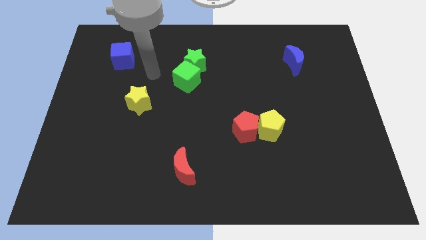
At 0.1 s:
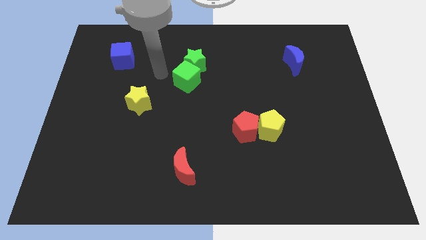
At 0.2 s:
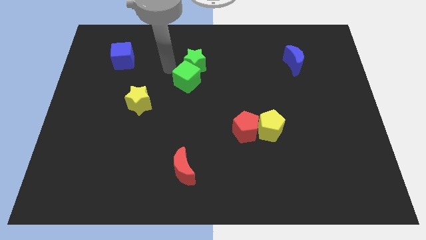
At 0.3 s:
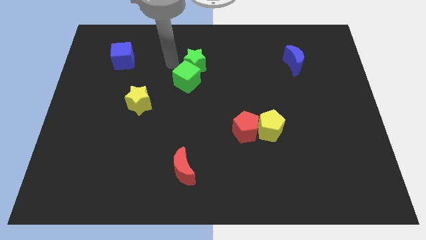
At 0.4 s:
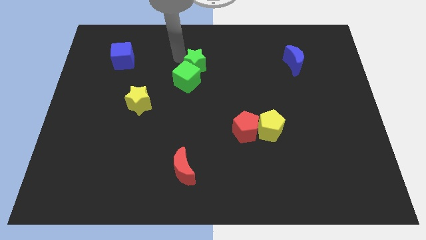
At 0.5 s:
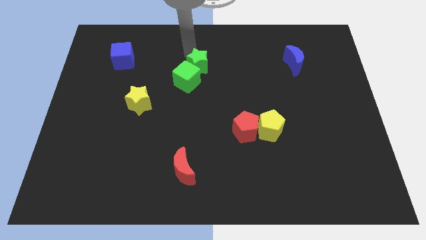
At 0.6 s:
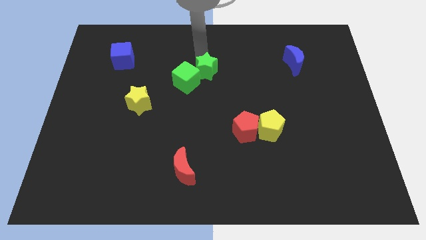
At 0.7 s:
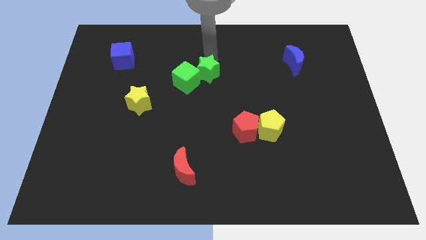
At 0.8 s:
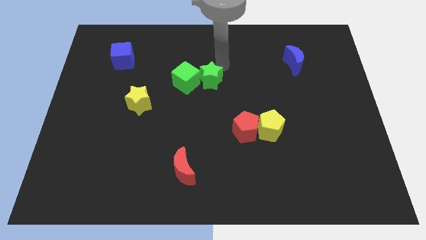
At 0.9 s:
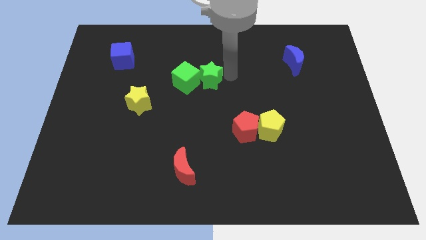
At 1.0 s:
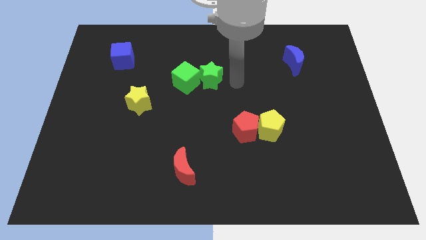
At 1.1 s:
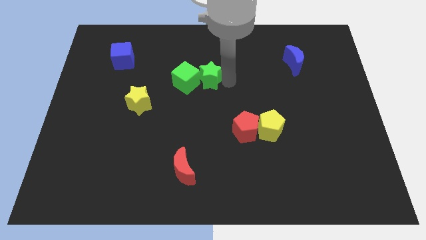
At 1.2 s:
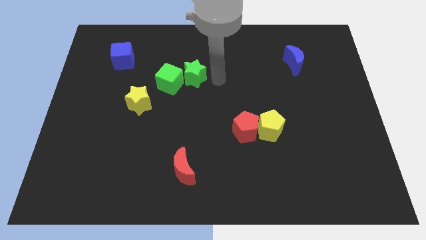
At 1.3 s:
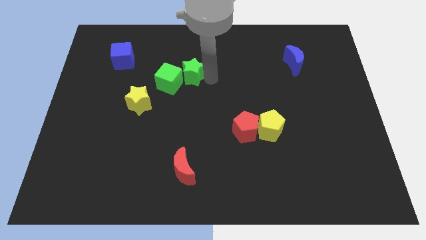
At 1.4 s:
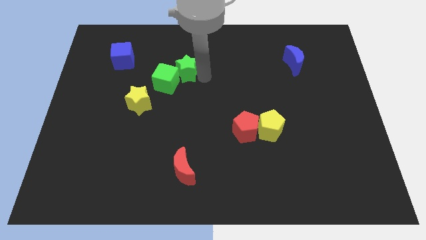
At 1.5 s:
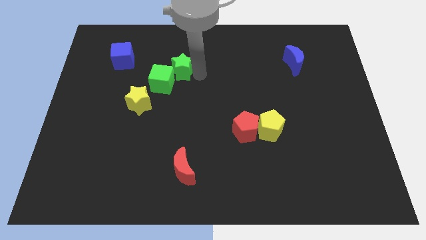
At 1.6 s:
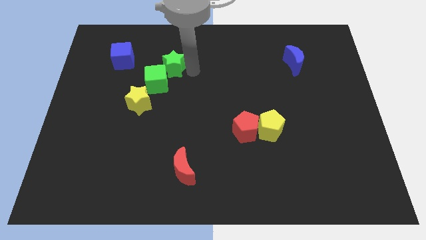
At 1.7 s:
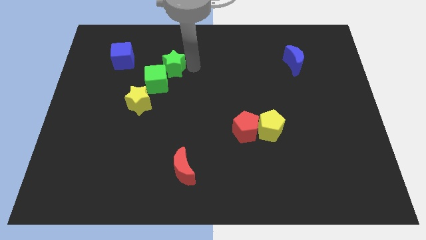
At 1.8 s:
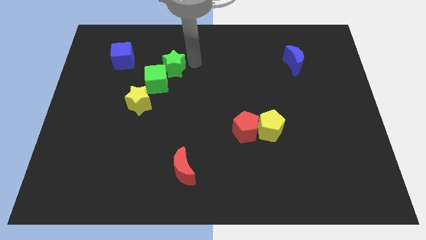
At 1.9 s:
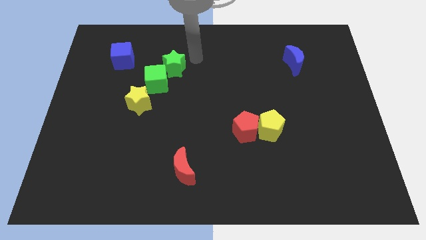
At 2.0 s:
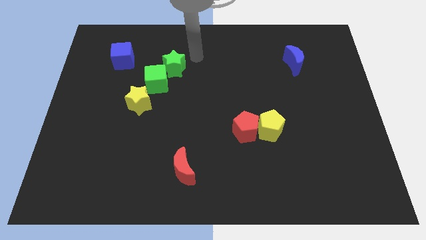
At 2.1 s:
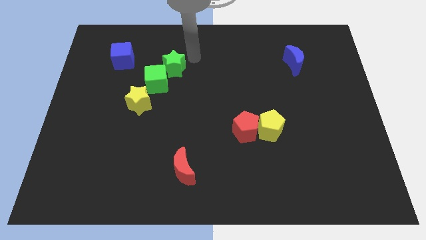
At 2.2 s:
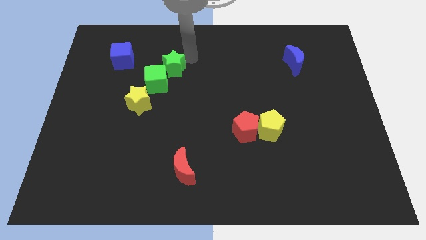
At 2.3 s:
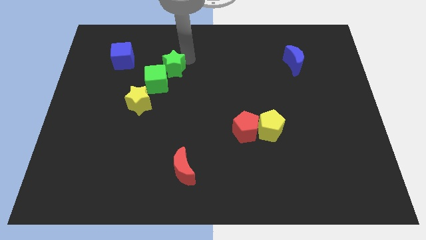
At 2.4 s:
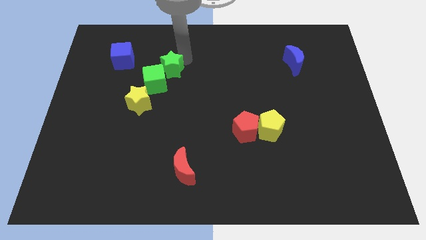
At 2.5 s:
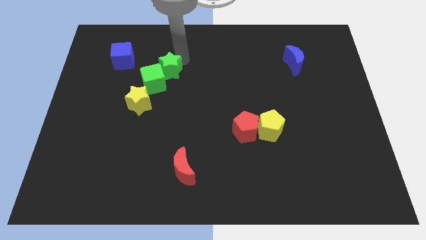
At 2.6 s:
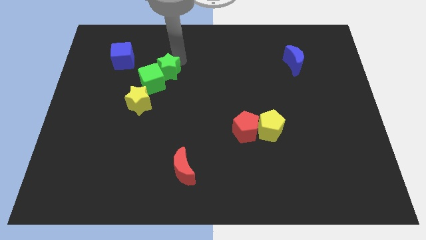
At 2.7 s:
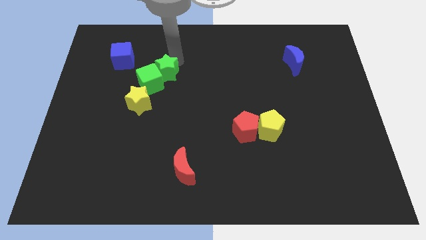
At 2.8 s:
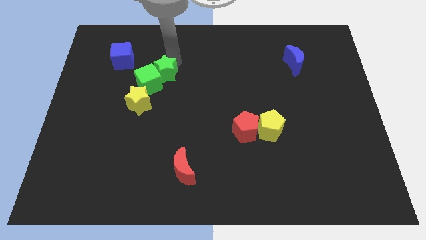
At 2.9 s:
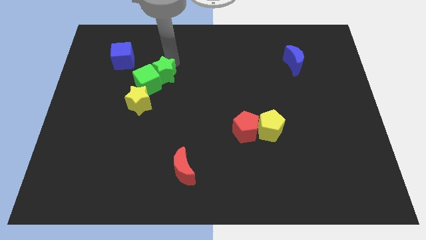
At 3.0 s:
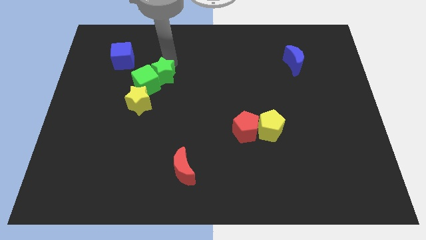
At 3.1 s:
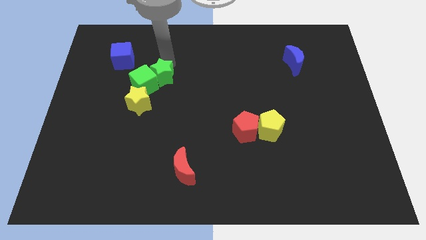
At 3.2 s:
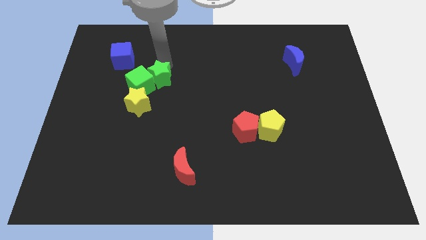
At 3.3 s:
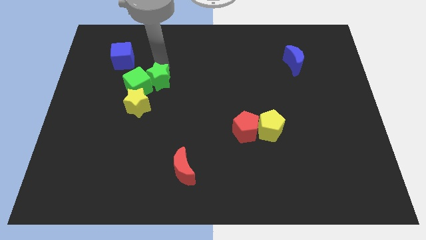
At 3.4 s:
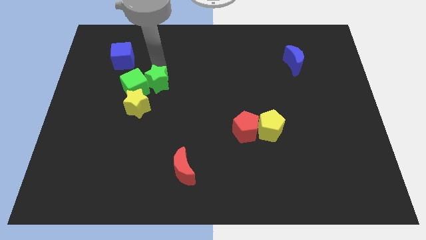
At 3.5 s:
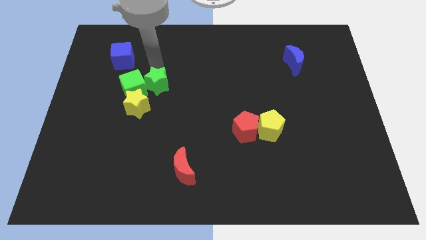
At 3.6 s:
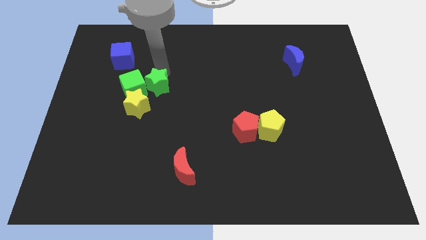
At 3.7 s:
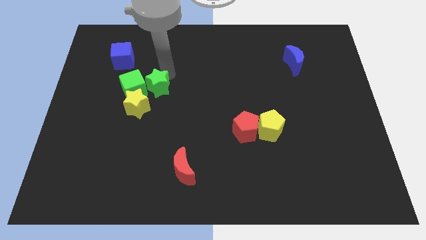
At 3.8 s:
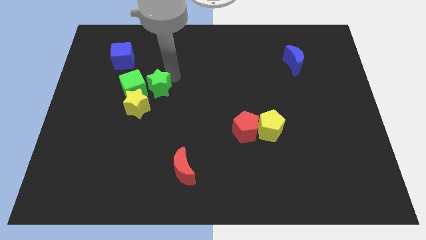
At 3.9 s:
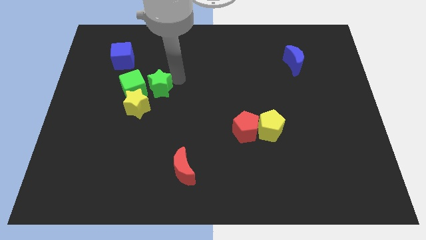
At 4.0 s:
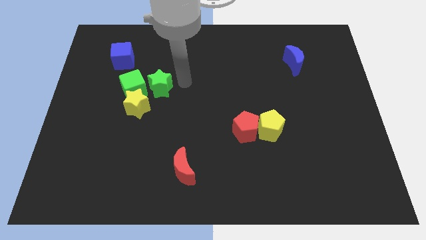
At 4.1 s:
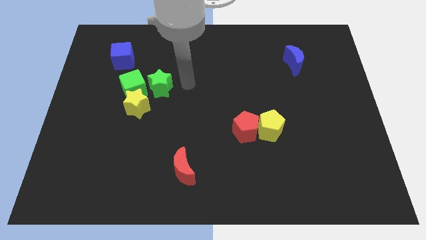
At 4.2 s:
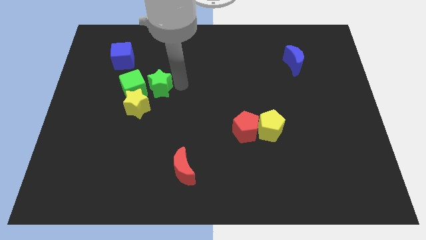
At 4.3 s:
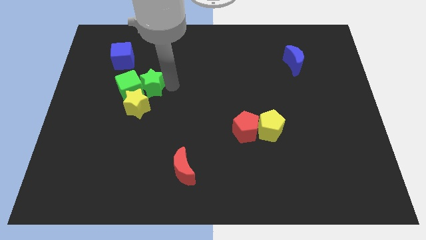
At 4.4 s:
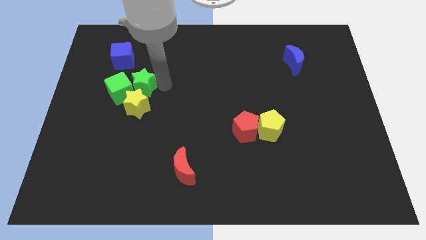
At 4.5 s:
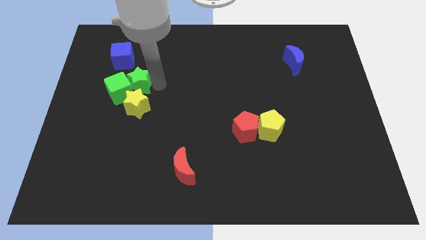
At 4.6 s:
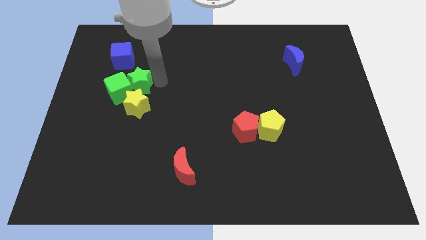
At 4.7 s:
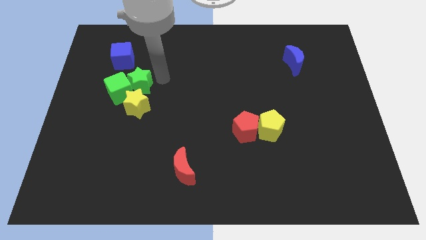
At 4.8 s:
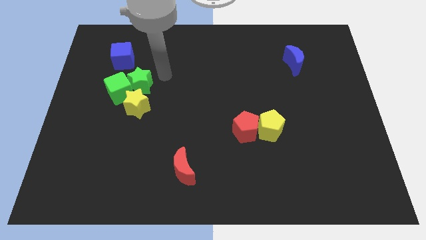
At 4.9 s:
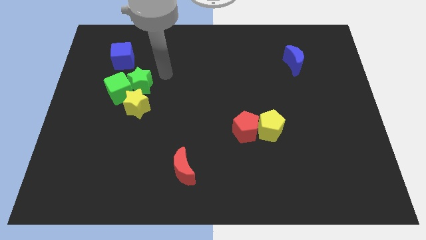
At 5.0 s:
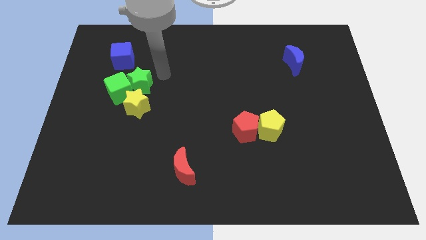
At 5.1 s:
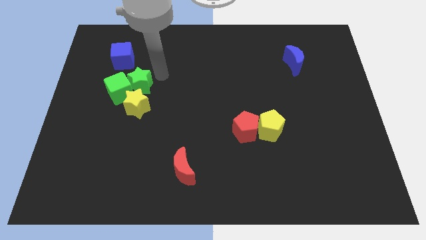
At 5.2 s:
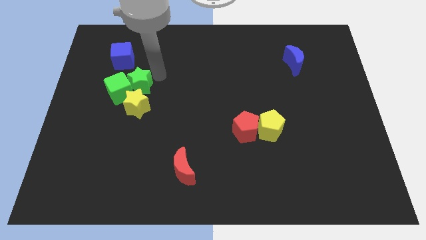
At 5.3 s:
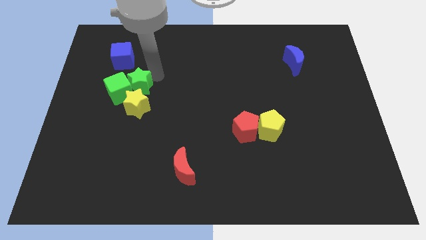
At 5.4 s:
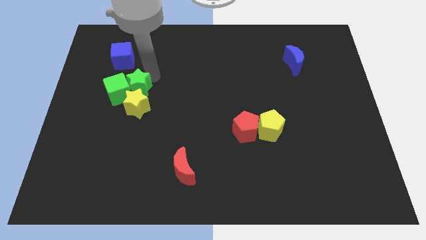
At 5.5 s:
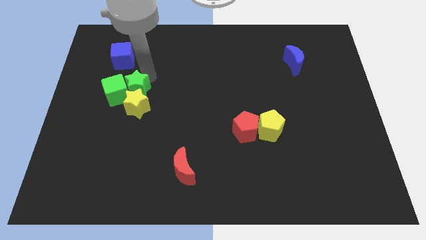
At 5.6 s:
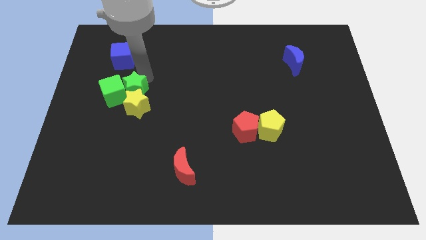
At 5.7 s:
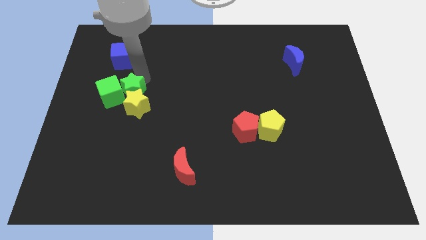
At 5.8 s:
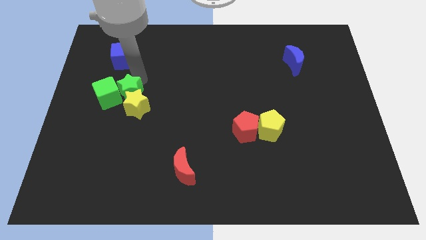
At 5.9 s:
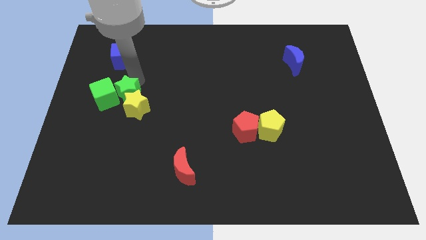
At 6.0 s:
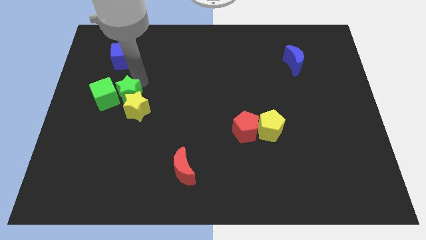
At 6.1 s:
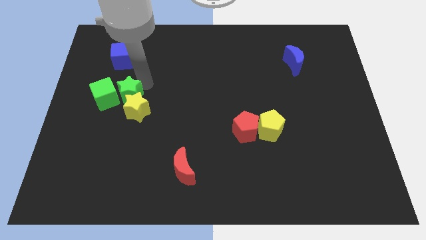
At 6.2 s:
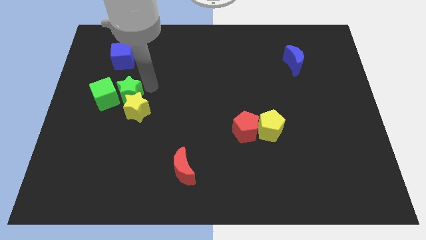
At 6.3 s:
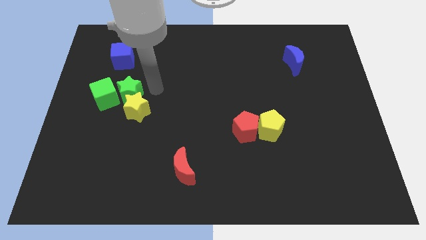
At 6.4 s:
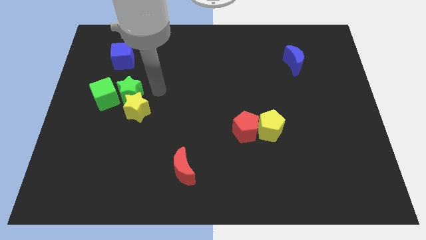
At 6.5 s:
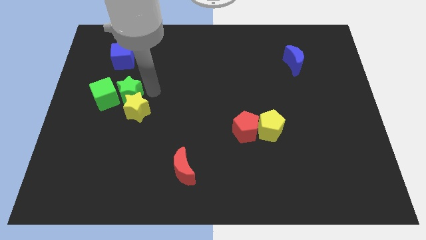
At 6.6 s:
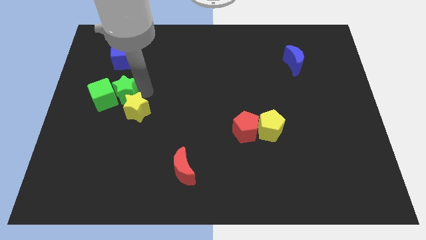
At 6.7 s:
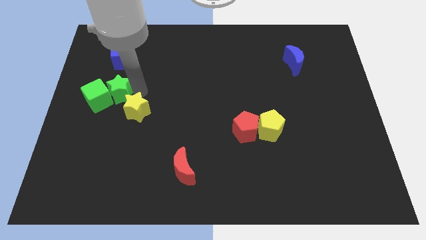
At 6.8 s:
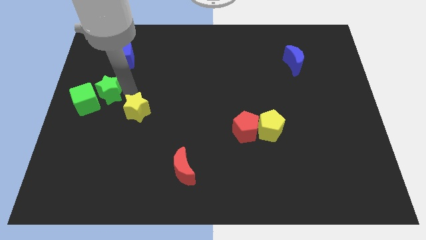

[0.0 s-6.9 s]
push the green star to the left side
